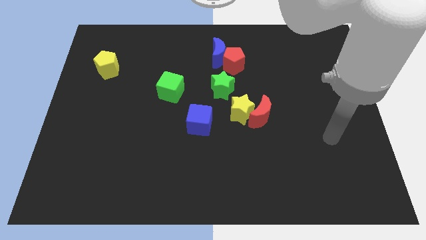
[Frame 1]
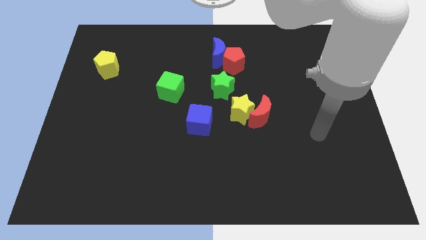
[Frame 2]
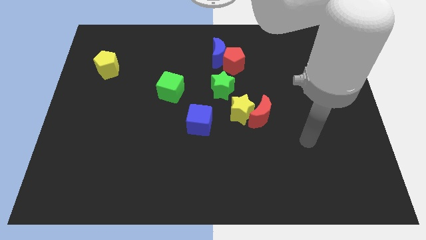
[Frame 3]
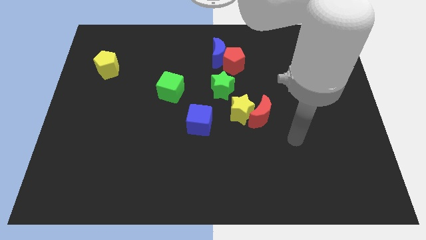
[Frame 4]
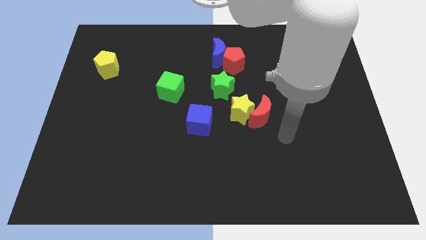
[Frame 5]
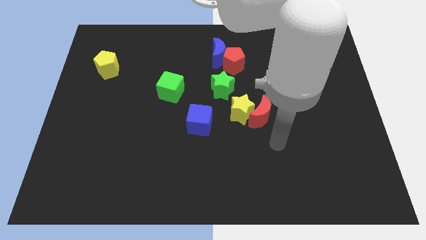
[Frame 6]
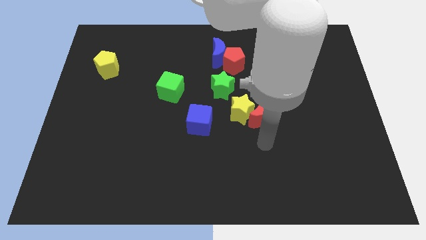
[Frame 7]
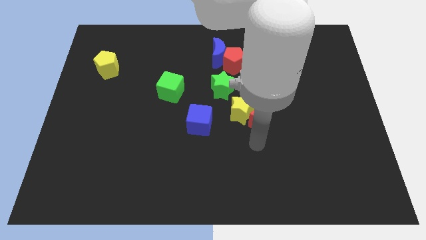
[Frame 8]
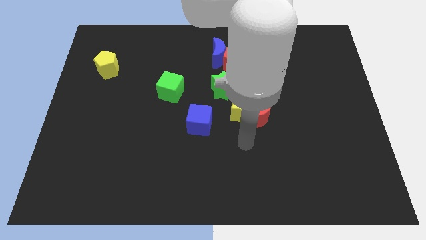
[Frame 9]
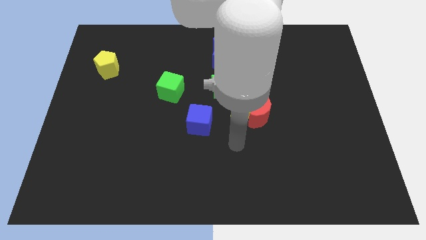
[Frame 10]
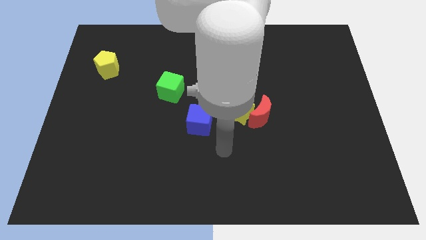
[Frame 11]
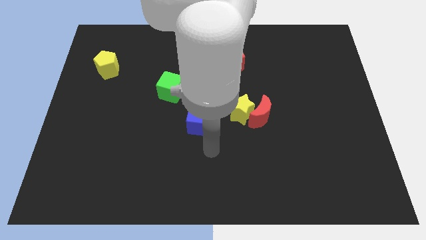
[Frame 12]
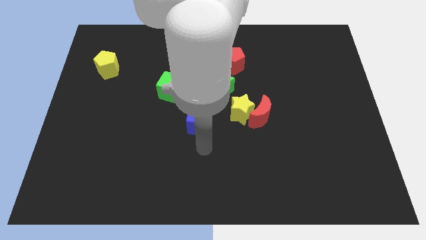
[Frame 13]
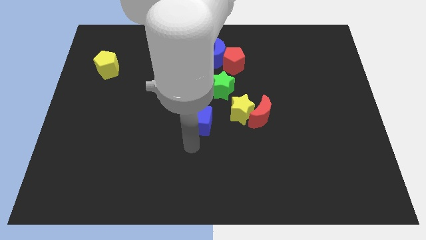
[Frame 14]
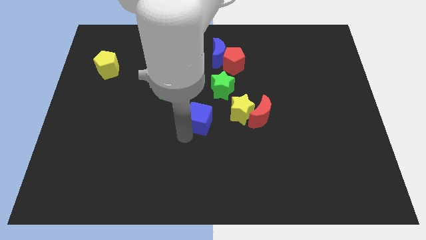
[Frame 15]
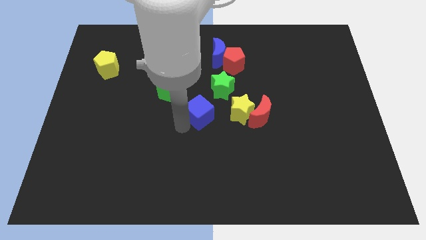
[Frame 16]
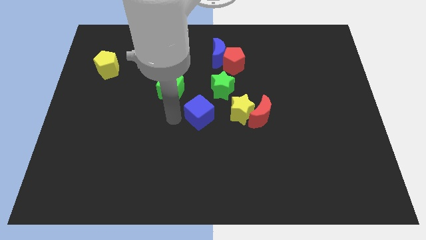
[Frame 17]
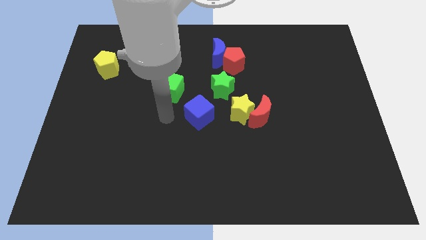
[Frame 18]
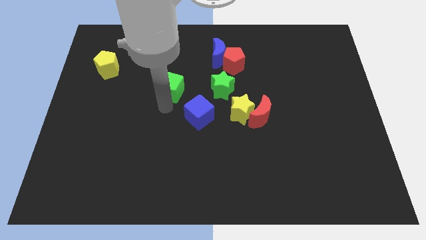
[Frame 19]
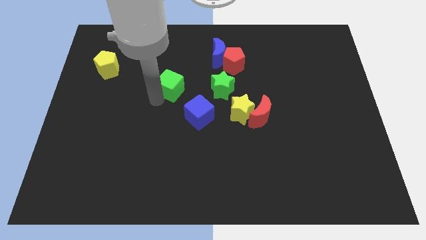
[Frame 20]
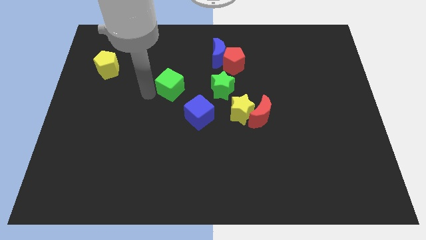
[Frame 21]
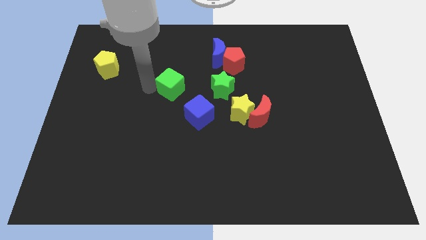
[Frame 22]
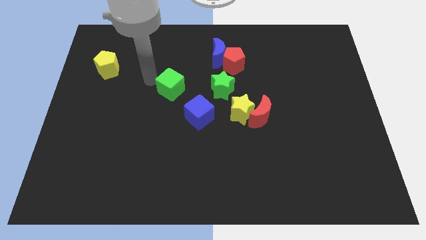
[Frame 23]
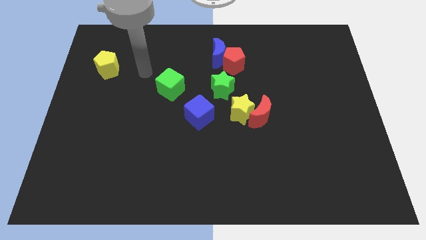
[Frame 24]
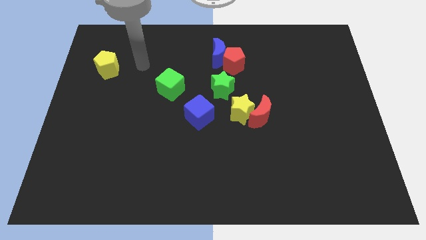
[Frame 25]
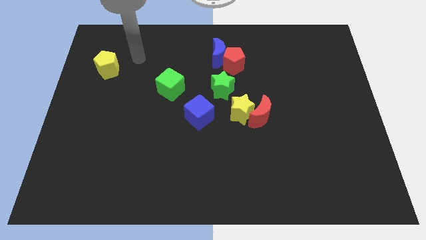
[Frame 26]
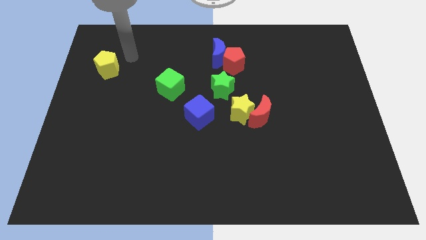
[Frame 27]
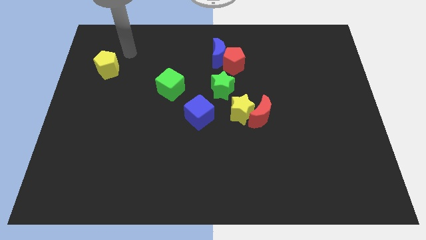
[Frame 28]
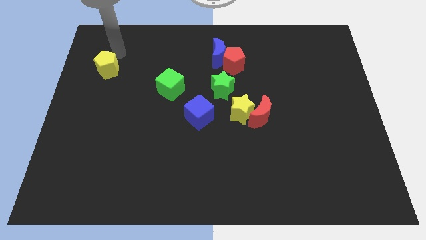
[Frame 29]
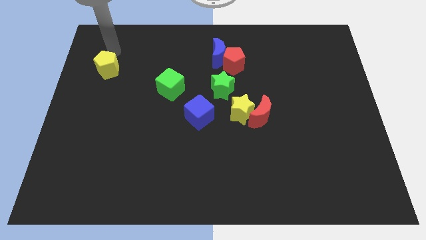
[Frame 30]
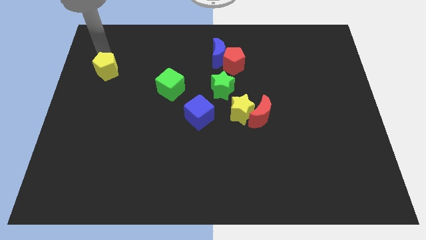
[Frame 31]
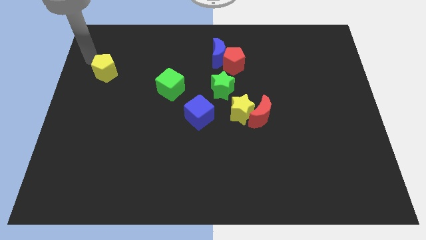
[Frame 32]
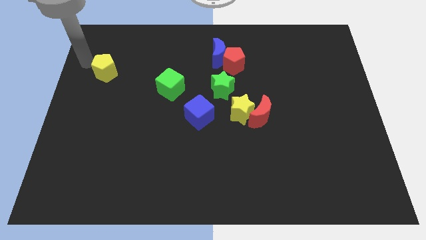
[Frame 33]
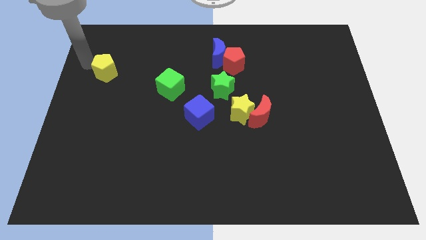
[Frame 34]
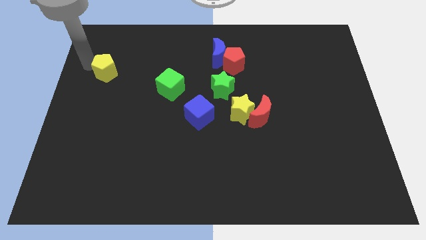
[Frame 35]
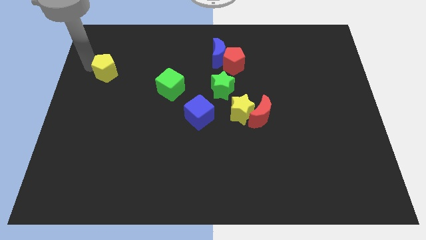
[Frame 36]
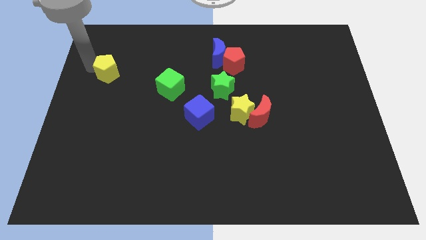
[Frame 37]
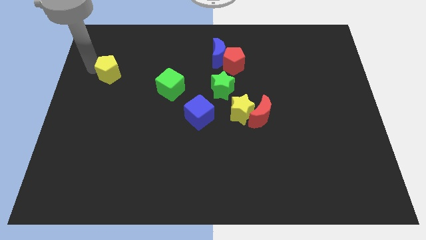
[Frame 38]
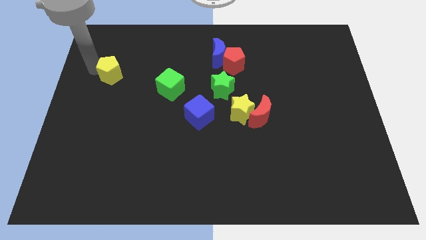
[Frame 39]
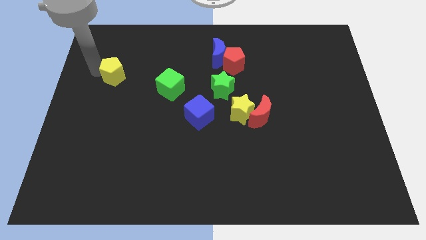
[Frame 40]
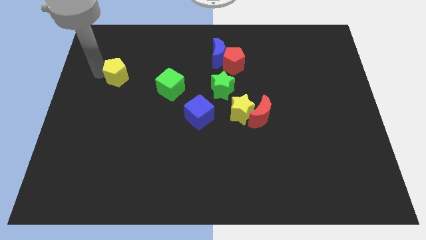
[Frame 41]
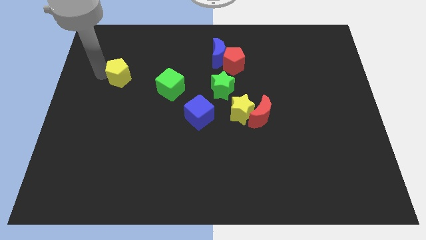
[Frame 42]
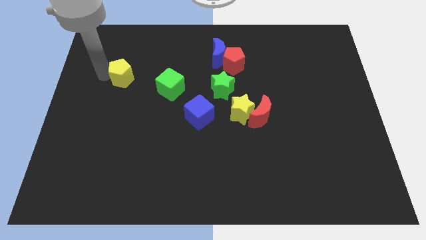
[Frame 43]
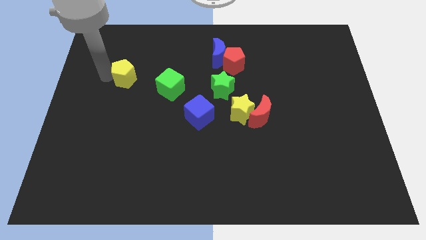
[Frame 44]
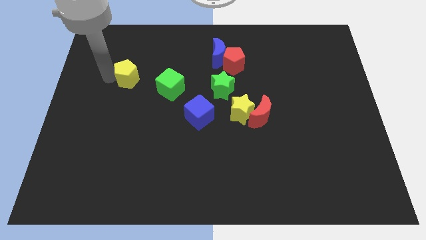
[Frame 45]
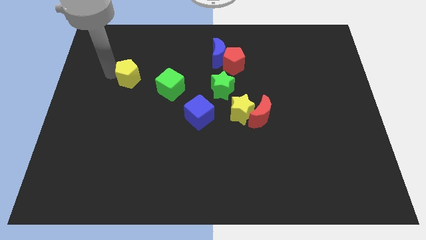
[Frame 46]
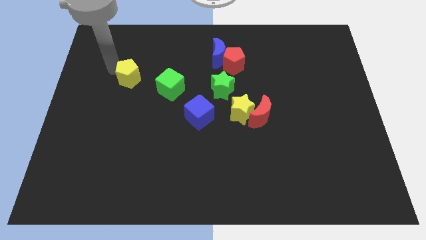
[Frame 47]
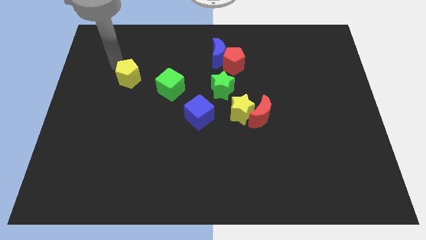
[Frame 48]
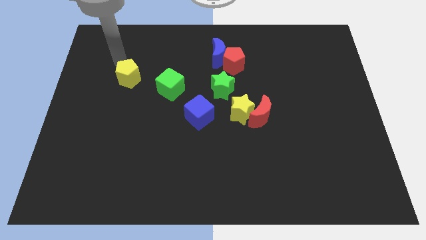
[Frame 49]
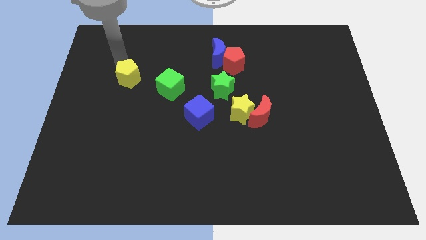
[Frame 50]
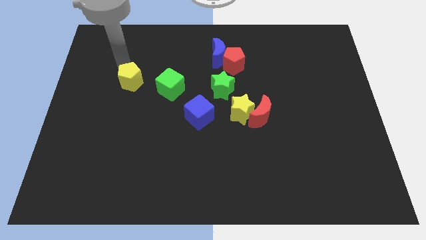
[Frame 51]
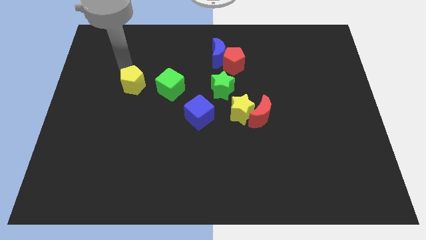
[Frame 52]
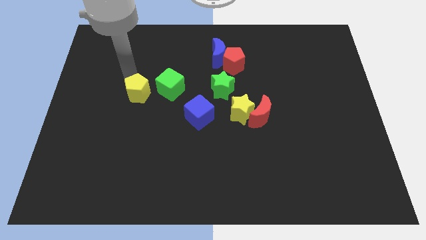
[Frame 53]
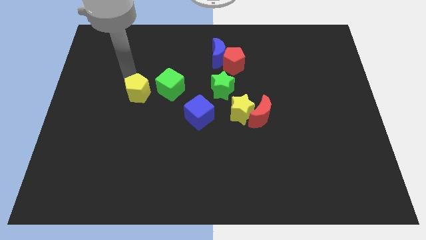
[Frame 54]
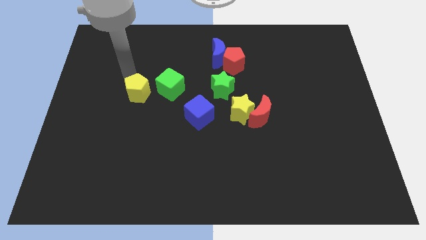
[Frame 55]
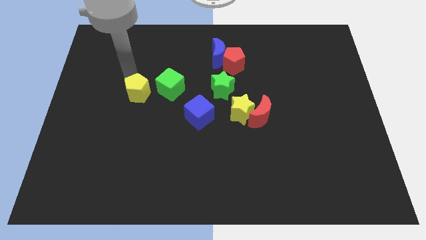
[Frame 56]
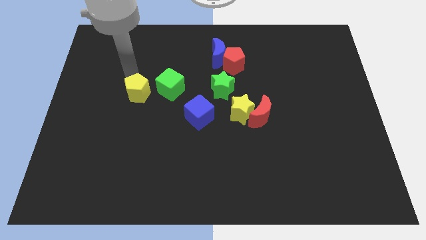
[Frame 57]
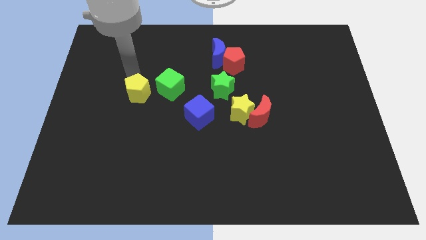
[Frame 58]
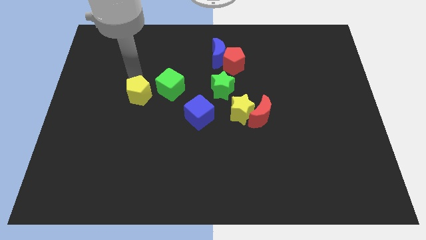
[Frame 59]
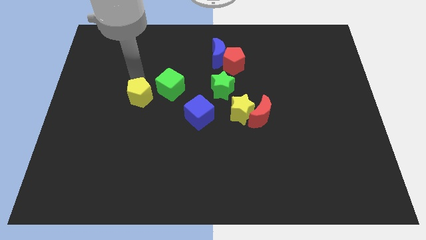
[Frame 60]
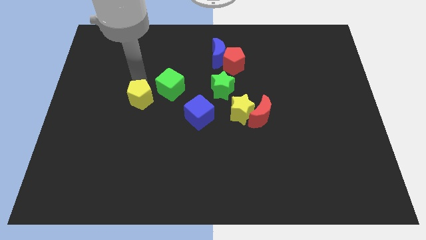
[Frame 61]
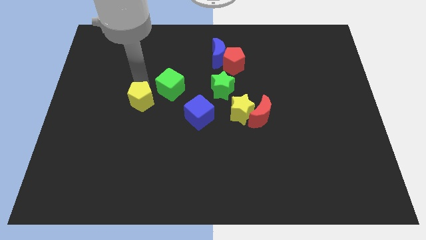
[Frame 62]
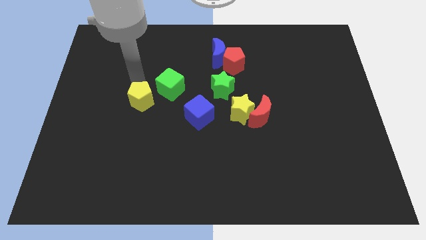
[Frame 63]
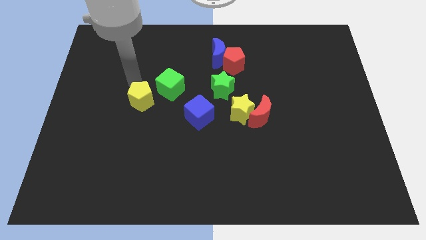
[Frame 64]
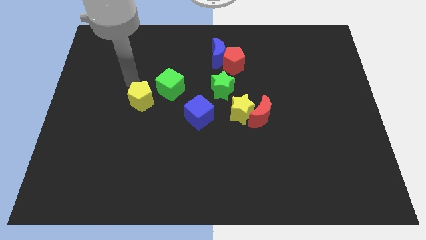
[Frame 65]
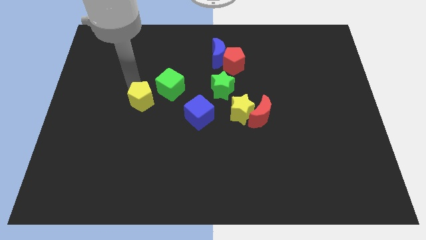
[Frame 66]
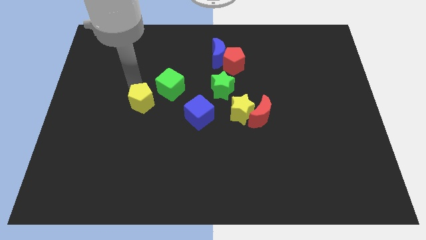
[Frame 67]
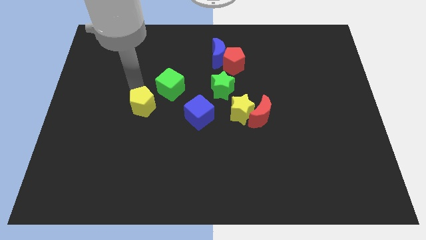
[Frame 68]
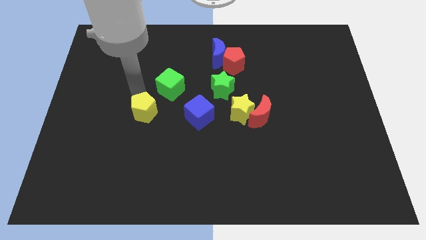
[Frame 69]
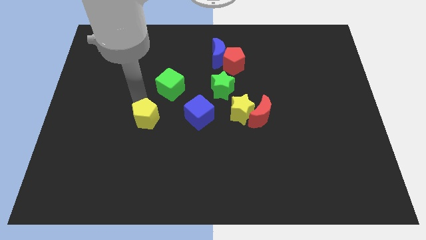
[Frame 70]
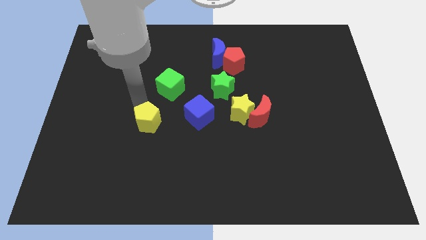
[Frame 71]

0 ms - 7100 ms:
push the yellow pentagon down and right

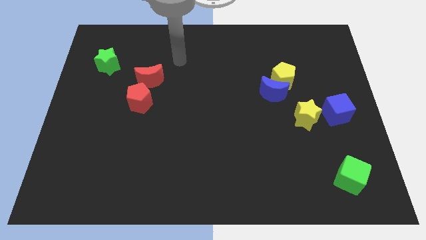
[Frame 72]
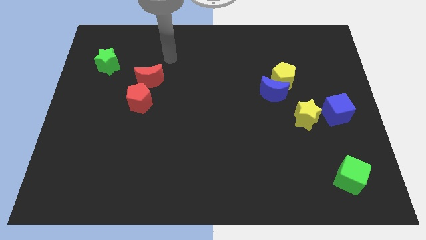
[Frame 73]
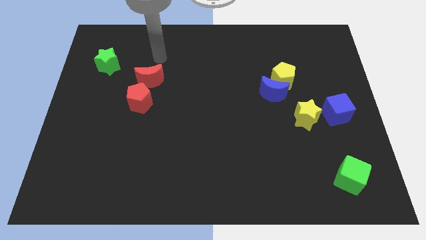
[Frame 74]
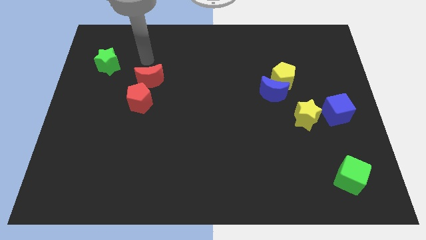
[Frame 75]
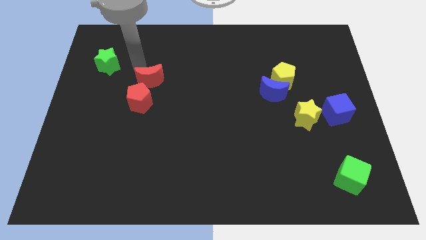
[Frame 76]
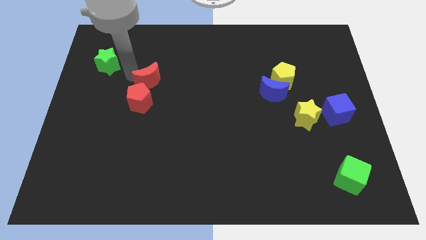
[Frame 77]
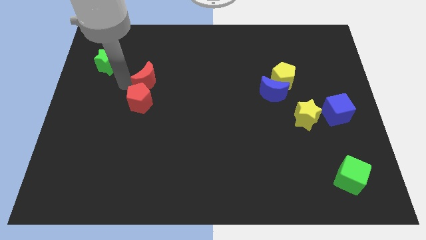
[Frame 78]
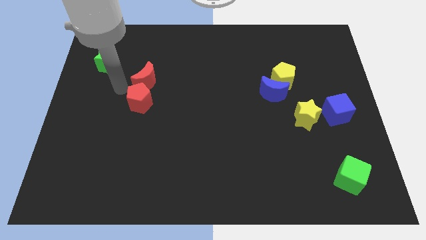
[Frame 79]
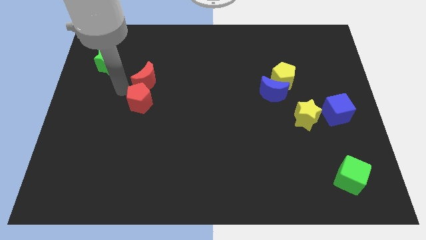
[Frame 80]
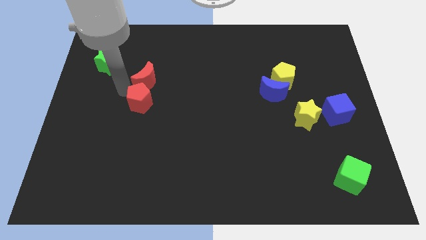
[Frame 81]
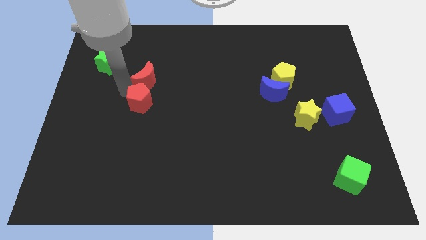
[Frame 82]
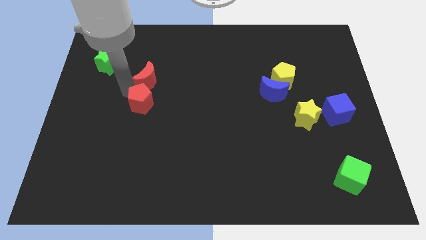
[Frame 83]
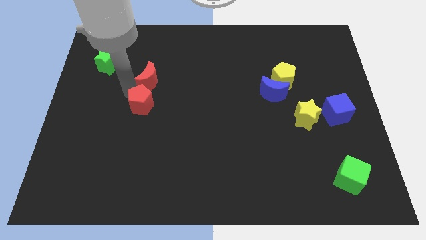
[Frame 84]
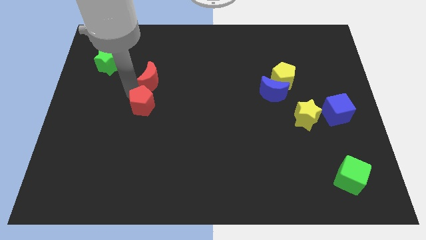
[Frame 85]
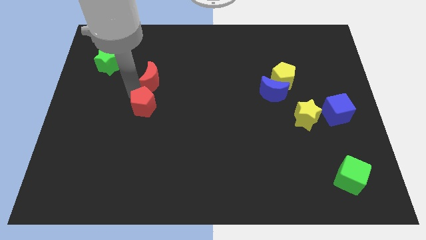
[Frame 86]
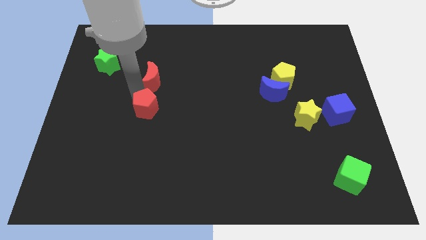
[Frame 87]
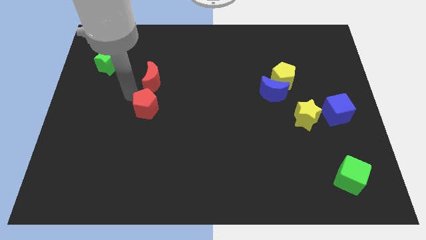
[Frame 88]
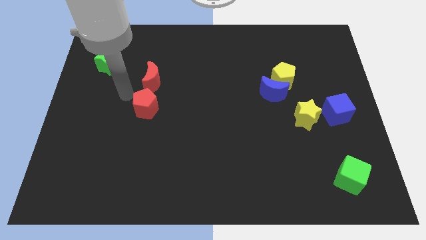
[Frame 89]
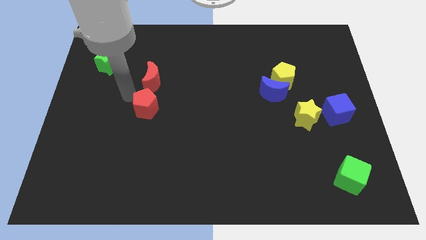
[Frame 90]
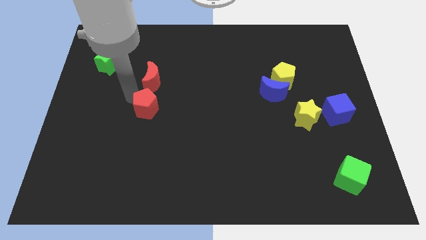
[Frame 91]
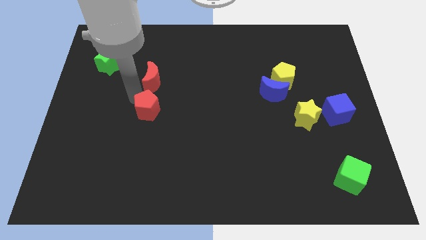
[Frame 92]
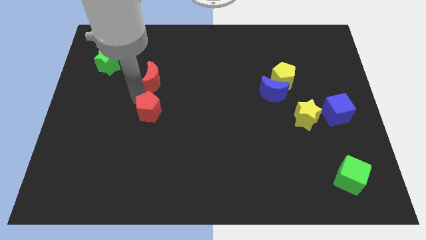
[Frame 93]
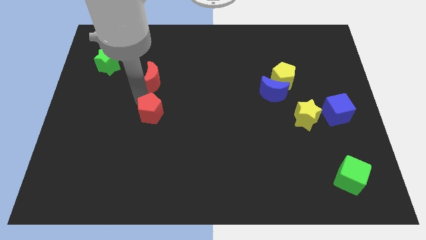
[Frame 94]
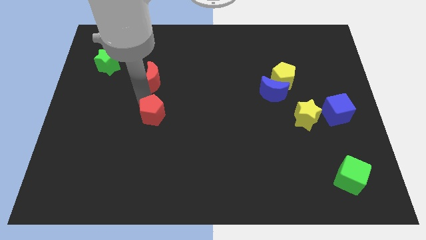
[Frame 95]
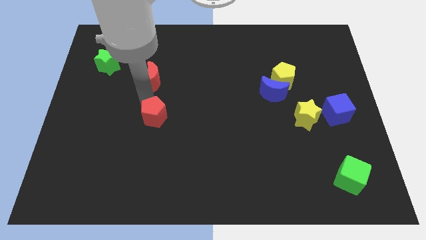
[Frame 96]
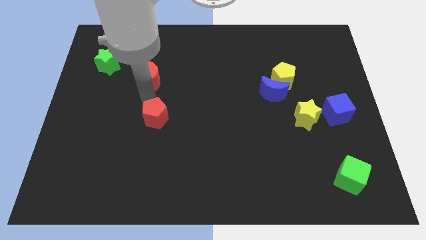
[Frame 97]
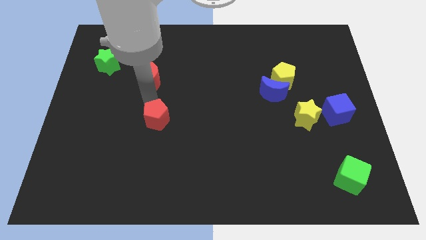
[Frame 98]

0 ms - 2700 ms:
push the red pentagon diagonally downwards and to the right a bit
